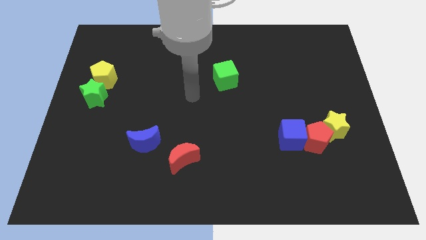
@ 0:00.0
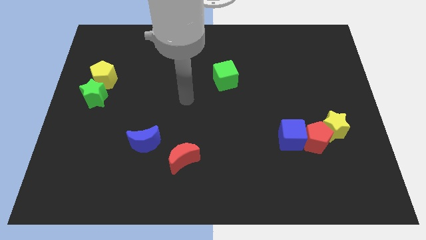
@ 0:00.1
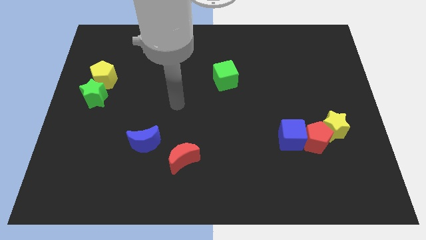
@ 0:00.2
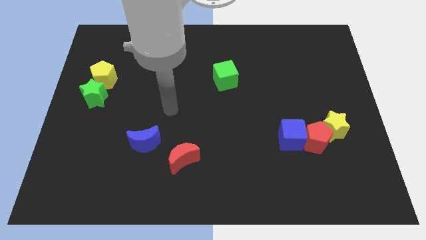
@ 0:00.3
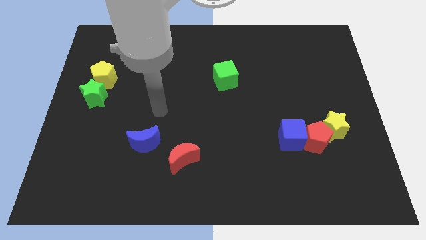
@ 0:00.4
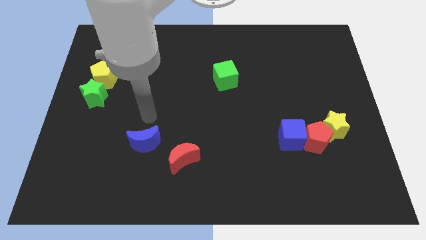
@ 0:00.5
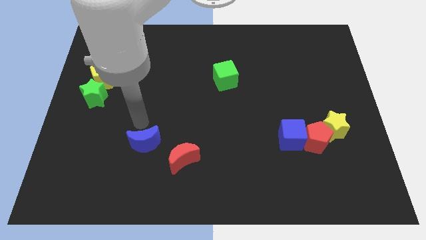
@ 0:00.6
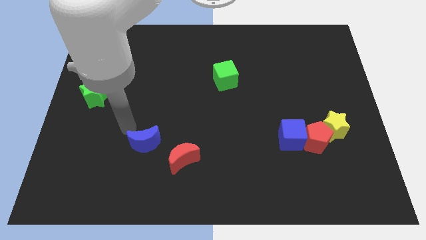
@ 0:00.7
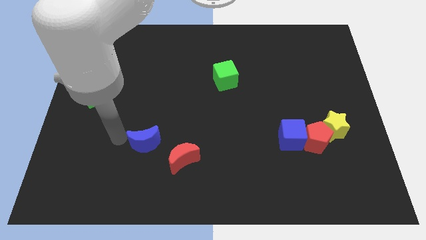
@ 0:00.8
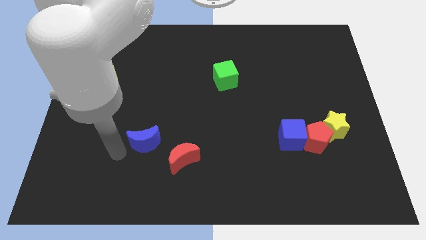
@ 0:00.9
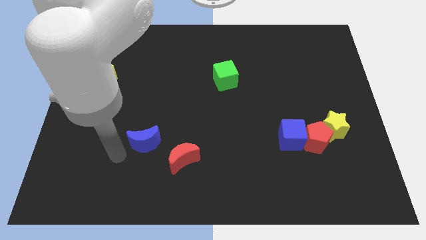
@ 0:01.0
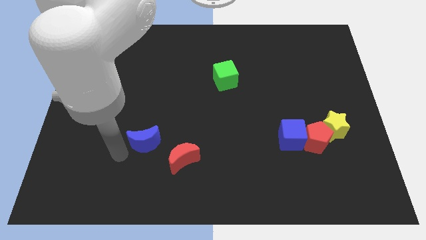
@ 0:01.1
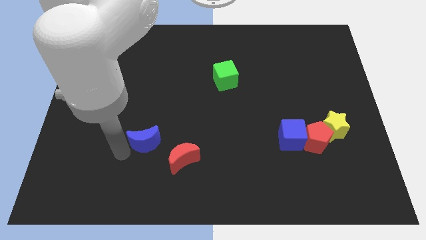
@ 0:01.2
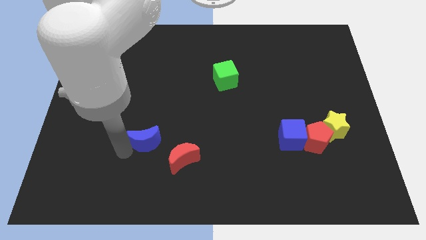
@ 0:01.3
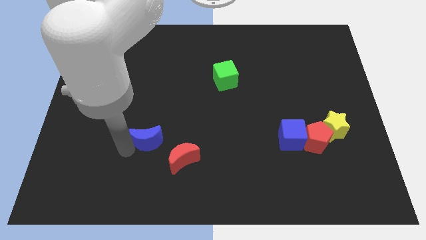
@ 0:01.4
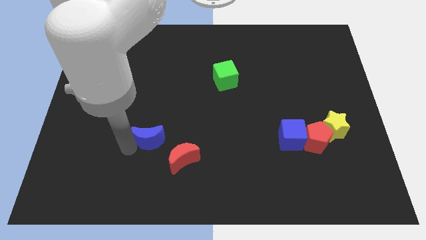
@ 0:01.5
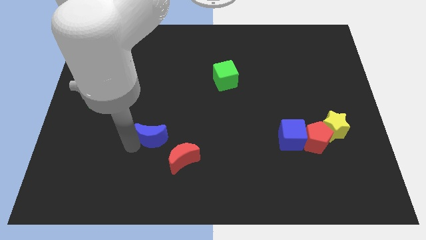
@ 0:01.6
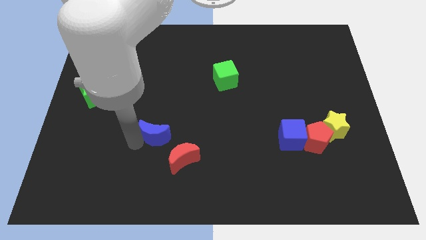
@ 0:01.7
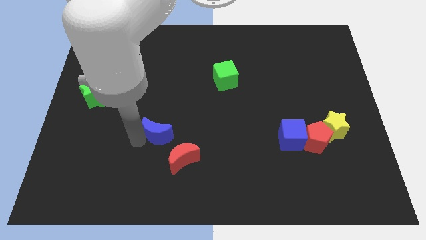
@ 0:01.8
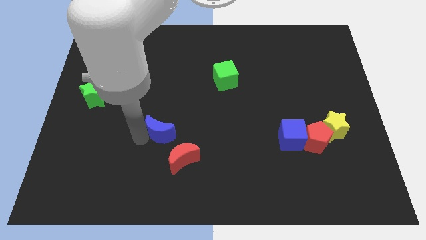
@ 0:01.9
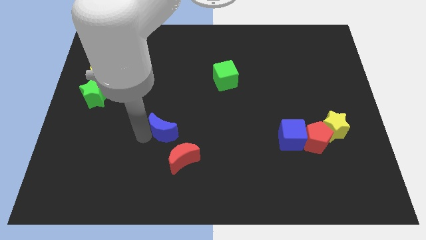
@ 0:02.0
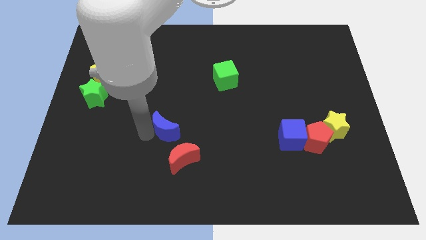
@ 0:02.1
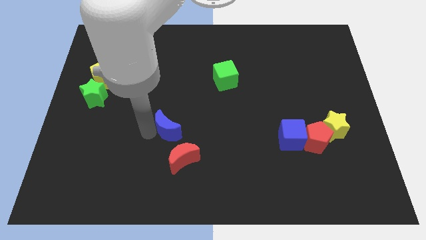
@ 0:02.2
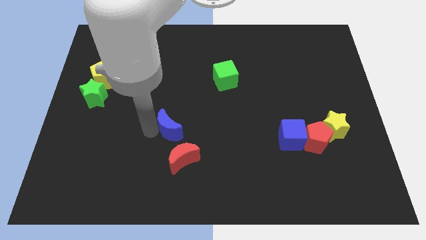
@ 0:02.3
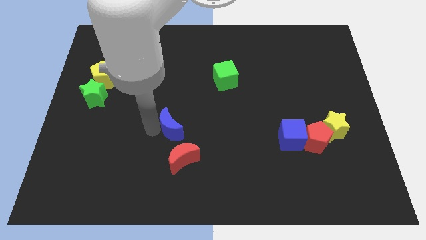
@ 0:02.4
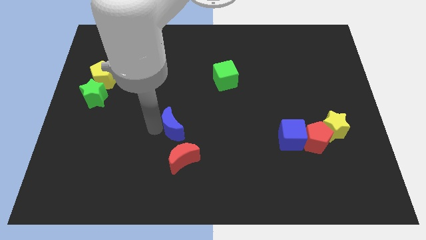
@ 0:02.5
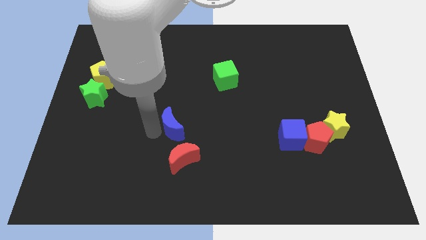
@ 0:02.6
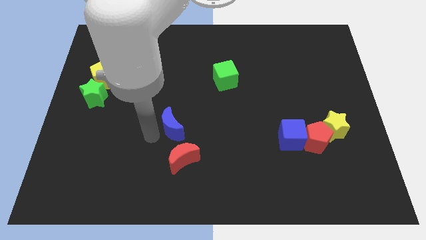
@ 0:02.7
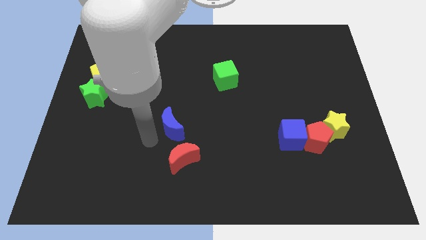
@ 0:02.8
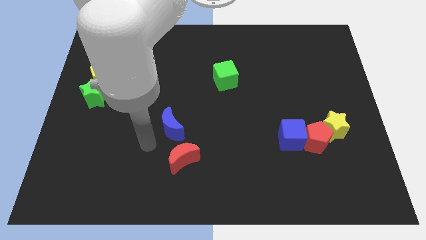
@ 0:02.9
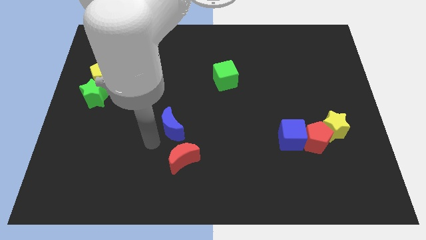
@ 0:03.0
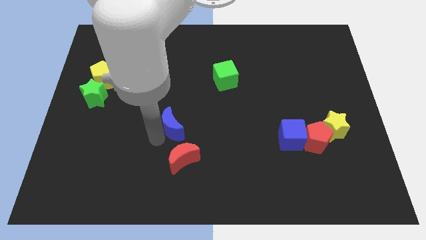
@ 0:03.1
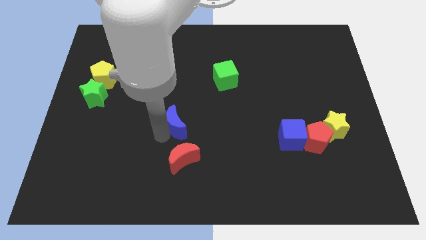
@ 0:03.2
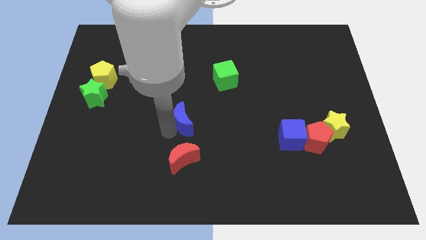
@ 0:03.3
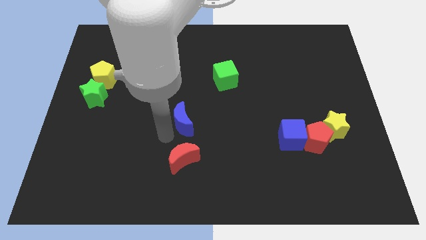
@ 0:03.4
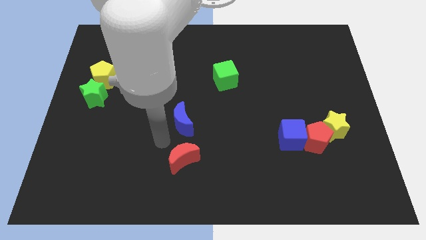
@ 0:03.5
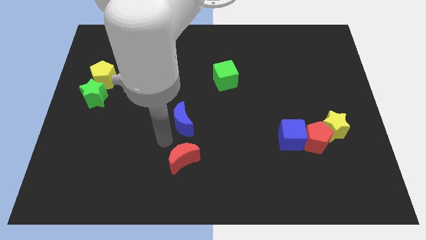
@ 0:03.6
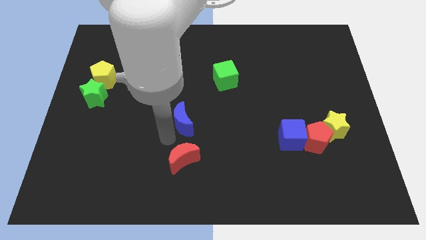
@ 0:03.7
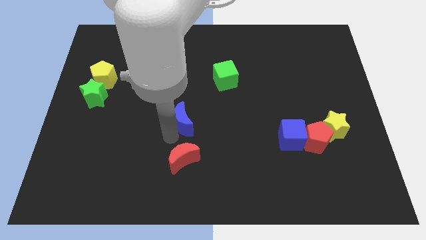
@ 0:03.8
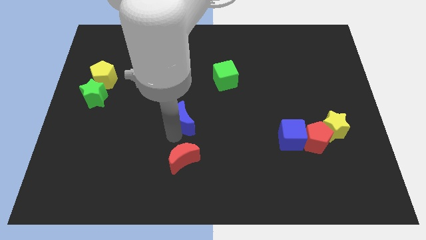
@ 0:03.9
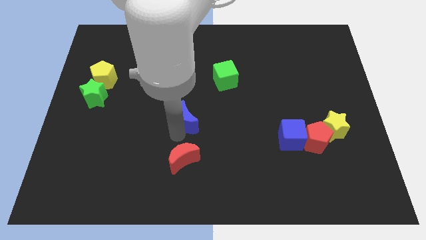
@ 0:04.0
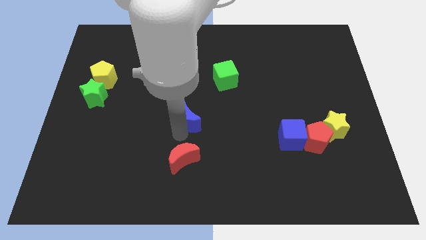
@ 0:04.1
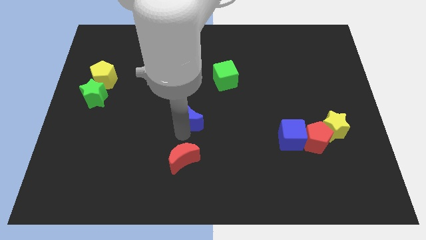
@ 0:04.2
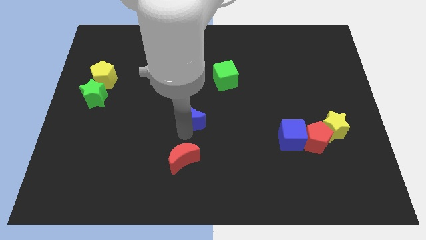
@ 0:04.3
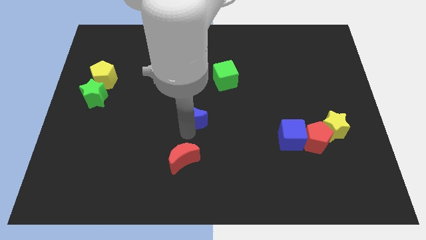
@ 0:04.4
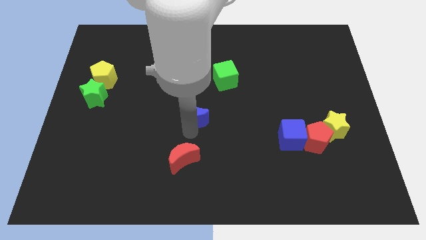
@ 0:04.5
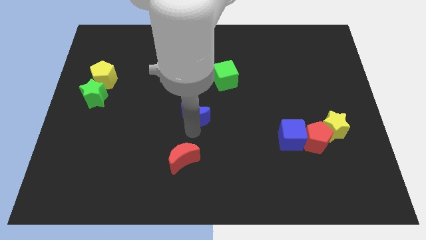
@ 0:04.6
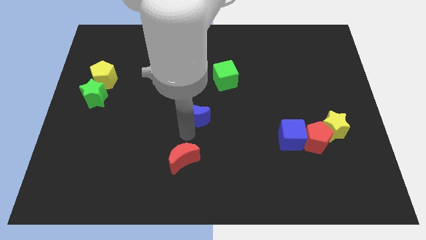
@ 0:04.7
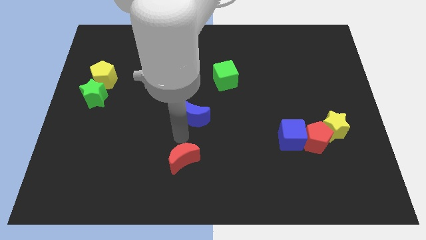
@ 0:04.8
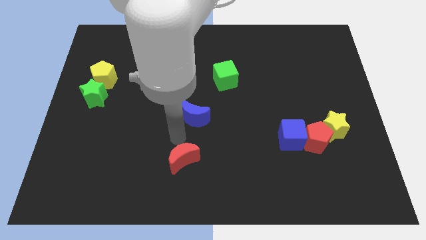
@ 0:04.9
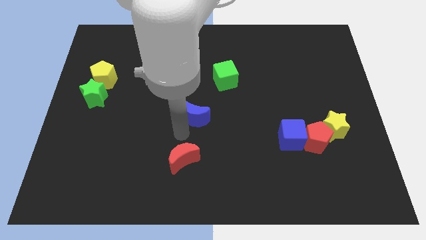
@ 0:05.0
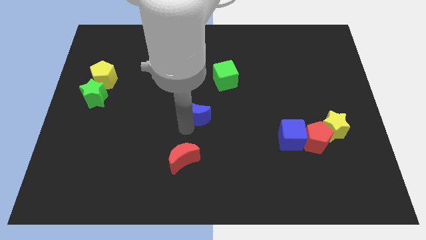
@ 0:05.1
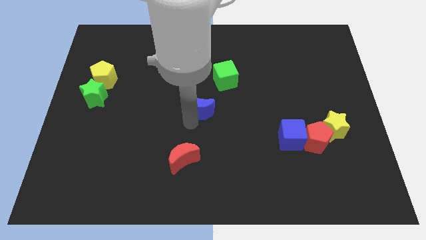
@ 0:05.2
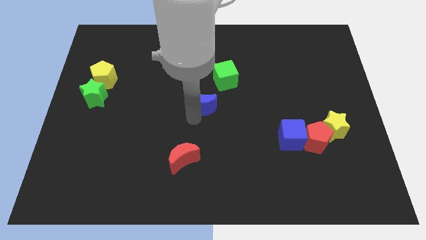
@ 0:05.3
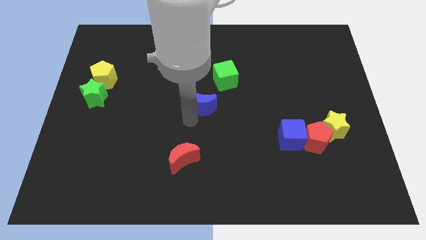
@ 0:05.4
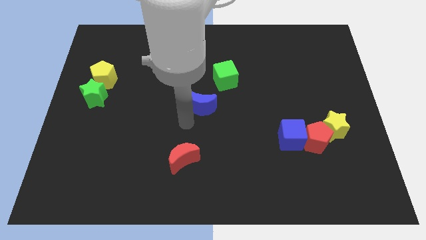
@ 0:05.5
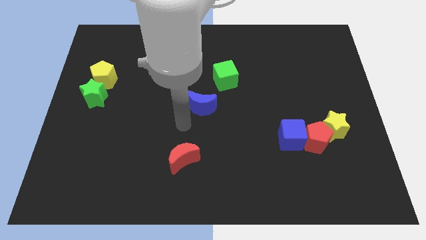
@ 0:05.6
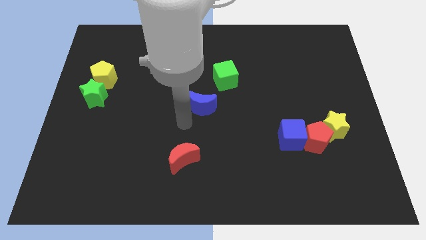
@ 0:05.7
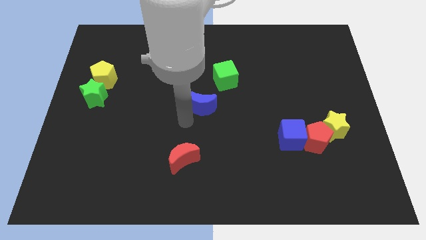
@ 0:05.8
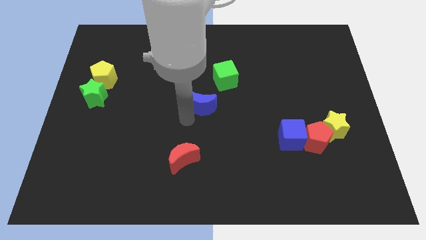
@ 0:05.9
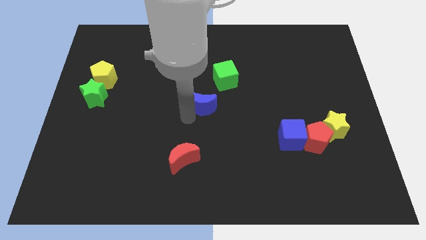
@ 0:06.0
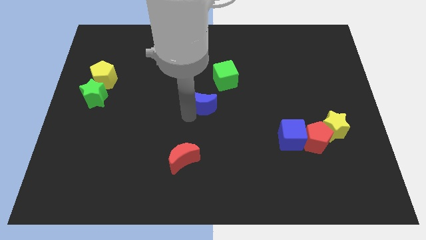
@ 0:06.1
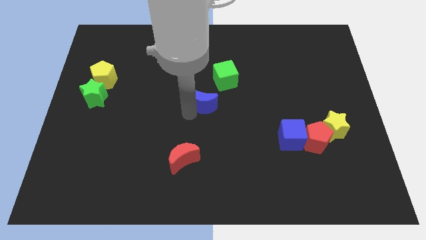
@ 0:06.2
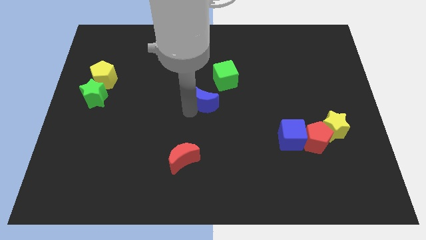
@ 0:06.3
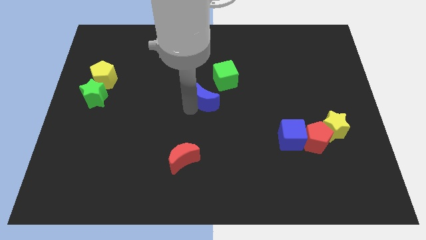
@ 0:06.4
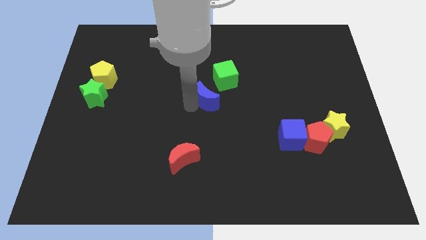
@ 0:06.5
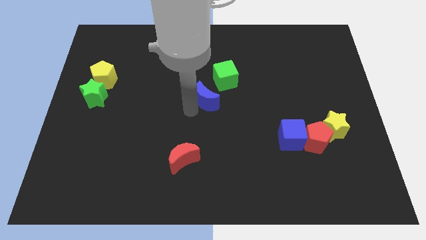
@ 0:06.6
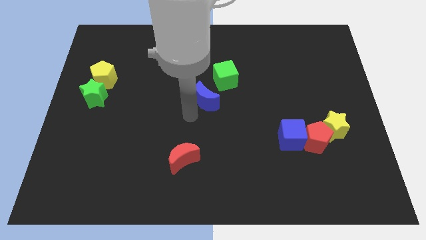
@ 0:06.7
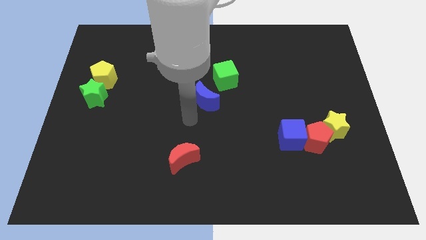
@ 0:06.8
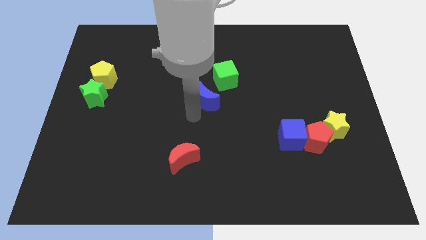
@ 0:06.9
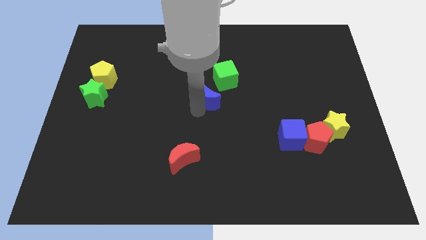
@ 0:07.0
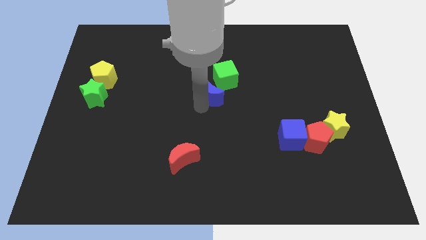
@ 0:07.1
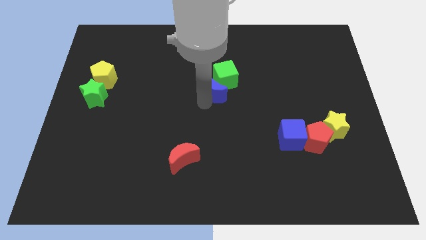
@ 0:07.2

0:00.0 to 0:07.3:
slide the blue moon next to the green cube

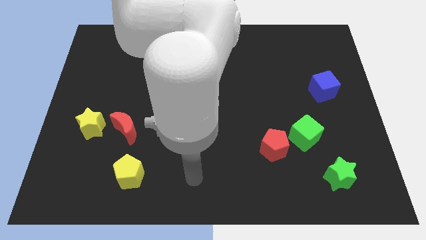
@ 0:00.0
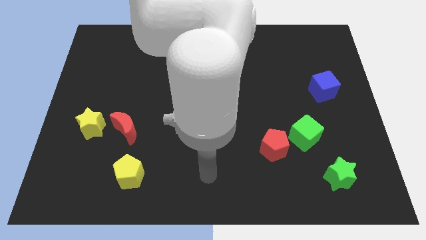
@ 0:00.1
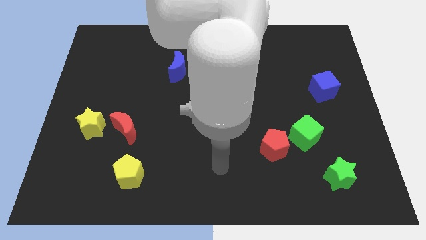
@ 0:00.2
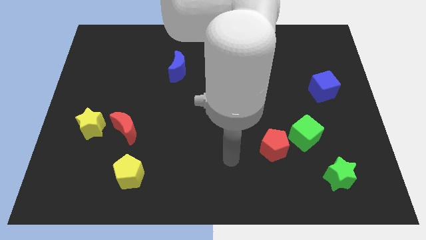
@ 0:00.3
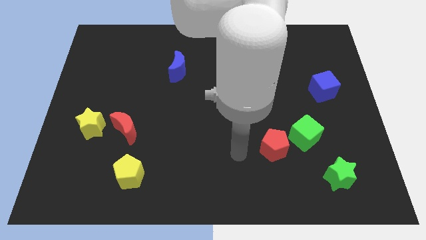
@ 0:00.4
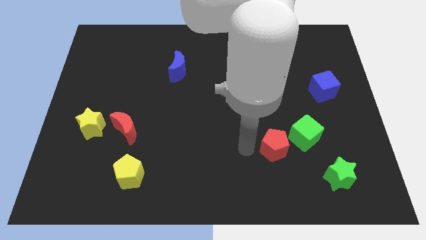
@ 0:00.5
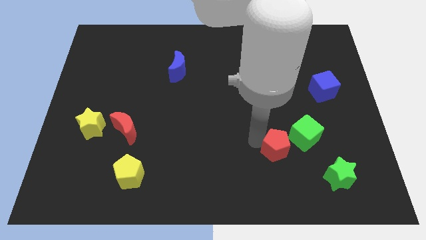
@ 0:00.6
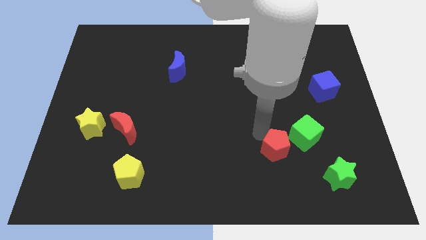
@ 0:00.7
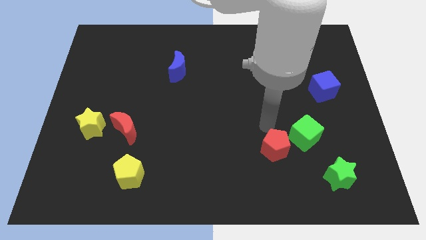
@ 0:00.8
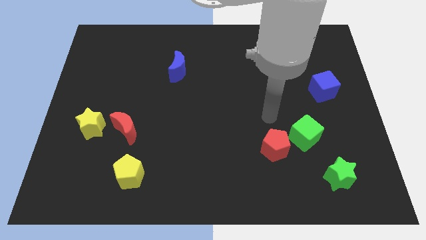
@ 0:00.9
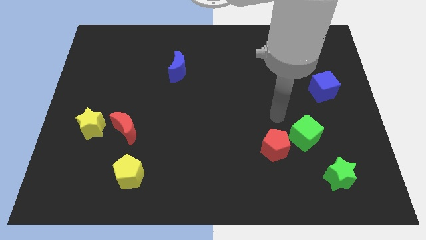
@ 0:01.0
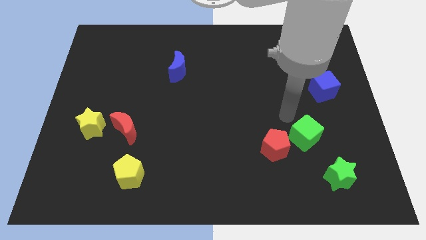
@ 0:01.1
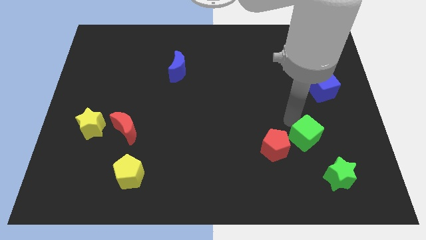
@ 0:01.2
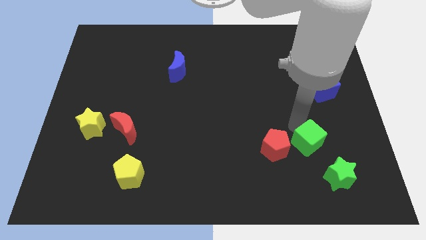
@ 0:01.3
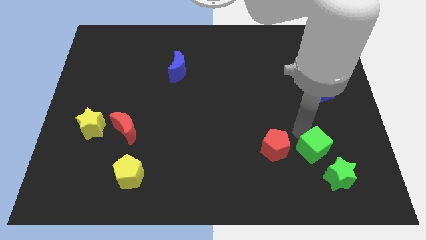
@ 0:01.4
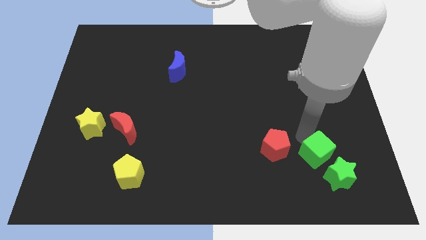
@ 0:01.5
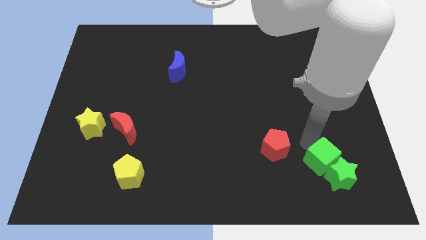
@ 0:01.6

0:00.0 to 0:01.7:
put the green cube towards the green star
